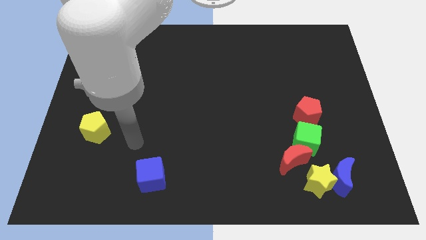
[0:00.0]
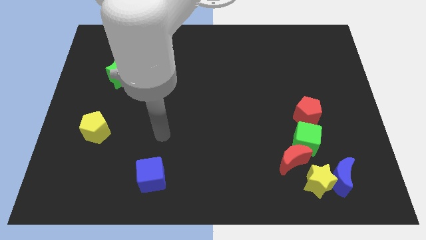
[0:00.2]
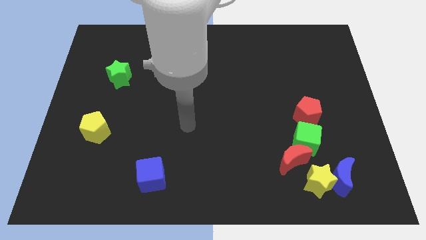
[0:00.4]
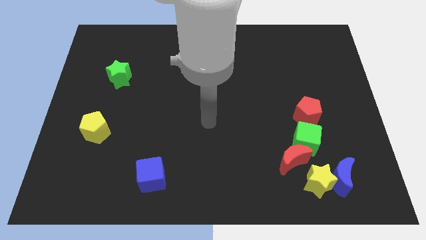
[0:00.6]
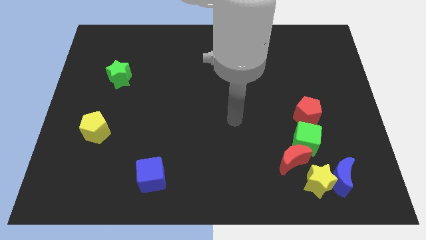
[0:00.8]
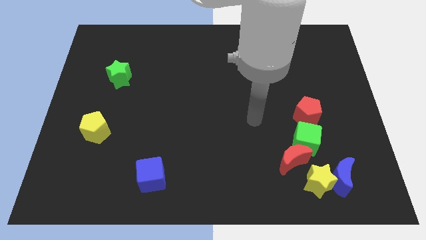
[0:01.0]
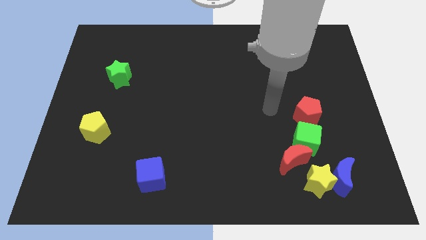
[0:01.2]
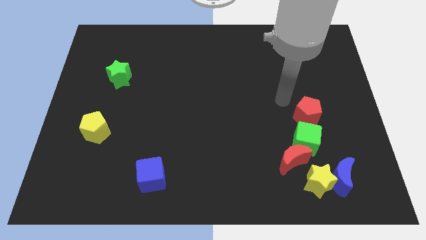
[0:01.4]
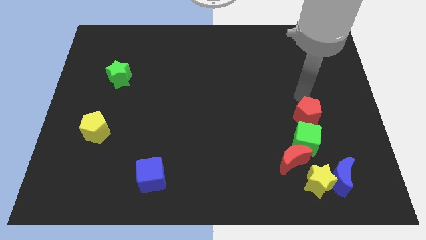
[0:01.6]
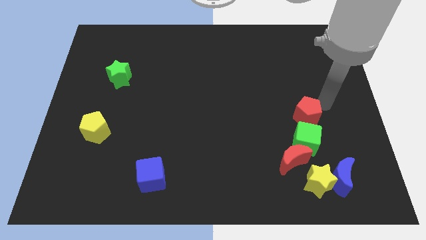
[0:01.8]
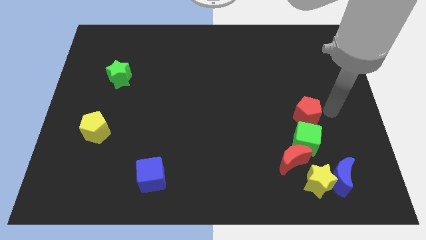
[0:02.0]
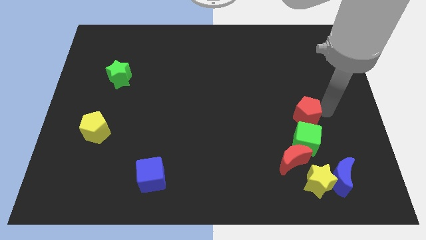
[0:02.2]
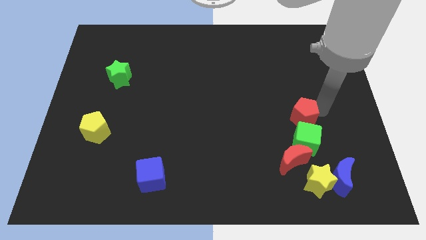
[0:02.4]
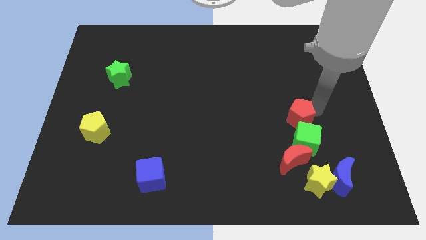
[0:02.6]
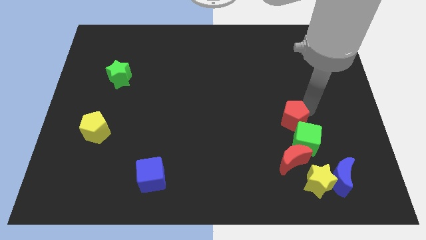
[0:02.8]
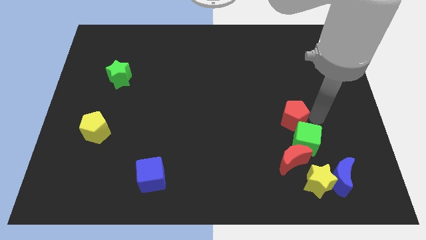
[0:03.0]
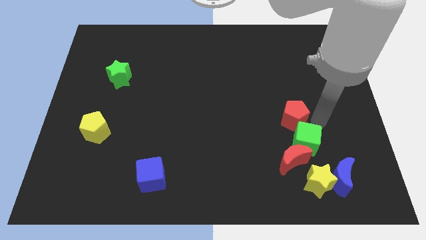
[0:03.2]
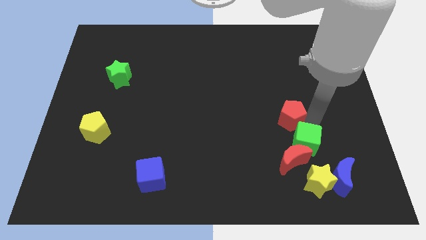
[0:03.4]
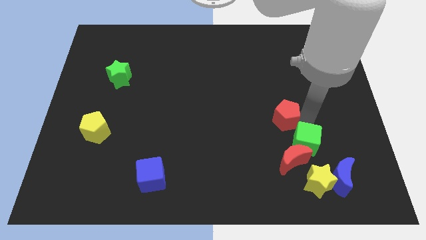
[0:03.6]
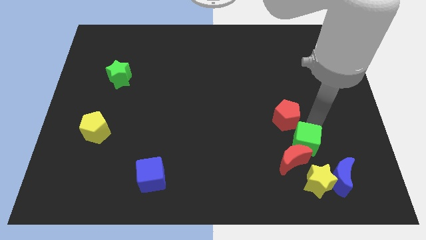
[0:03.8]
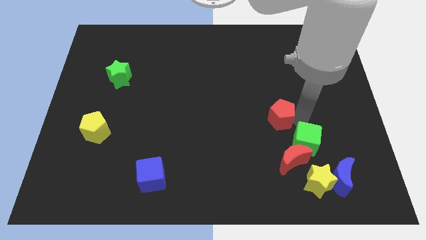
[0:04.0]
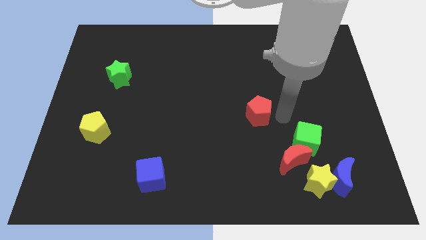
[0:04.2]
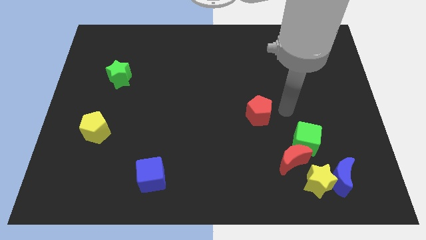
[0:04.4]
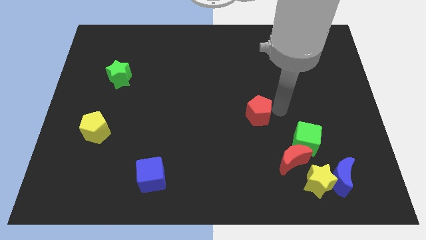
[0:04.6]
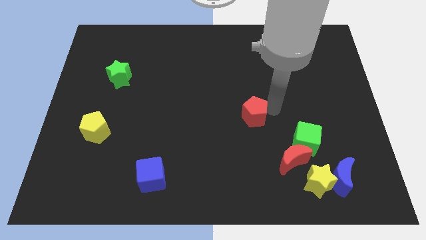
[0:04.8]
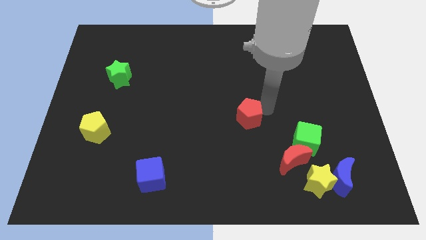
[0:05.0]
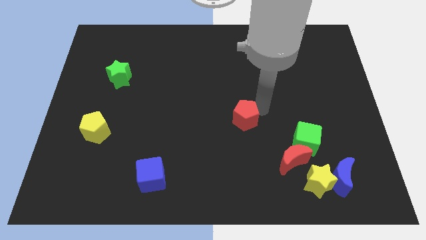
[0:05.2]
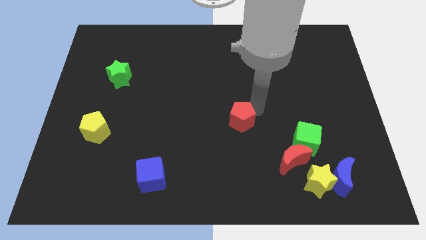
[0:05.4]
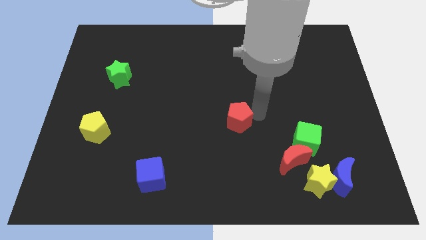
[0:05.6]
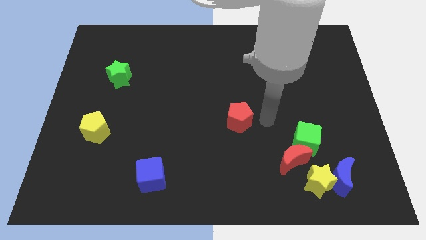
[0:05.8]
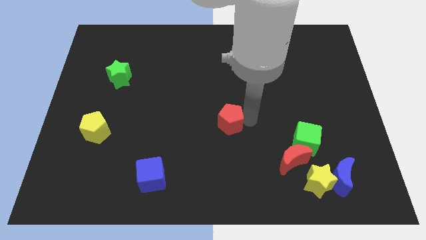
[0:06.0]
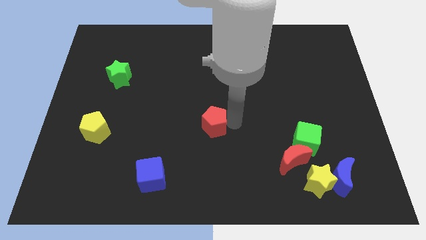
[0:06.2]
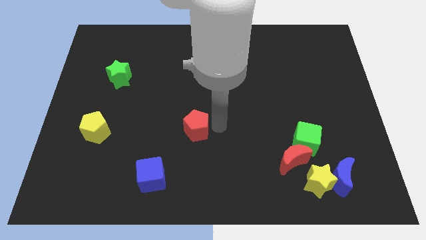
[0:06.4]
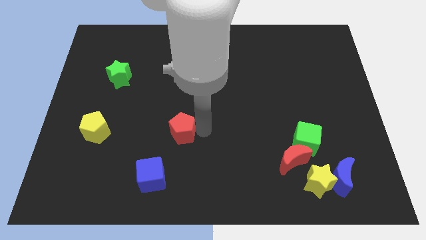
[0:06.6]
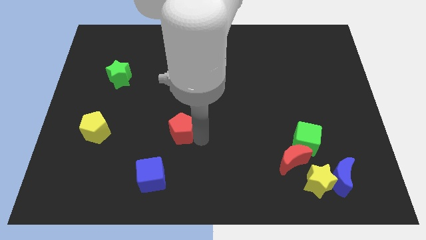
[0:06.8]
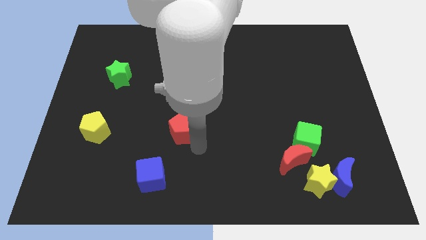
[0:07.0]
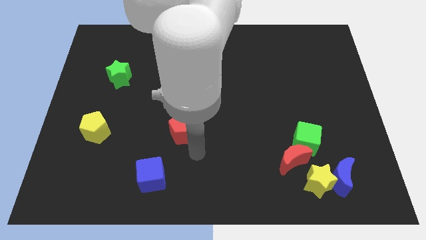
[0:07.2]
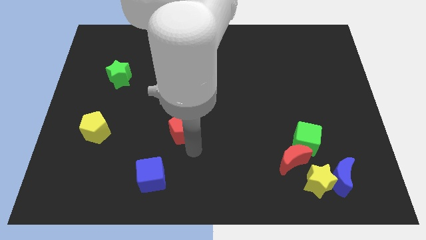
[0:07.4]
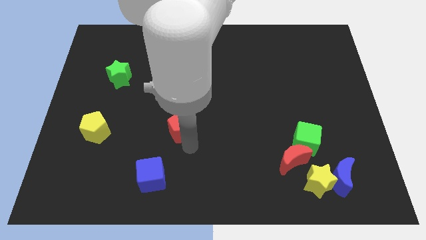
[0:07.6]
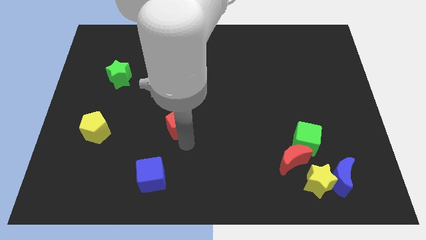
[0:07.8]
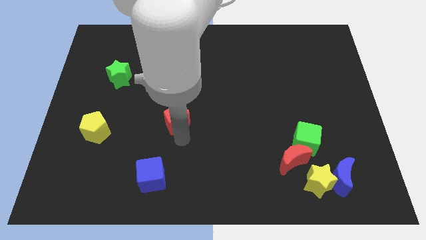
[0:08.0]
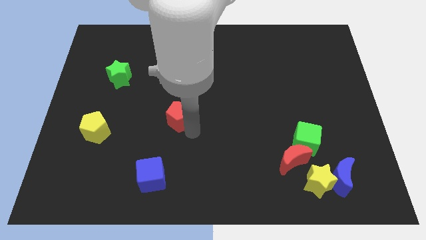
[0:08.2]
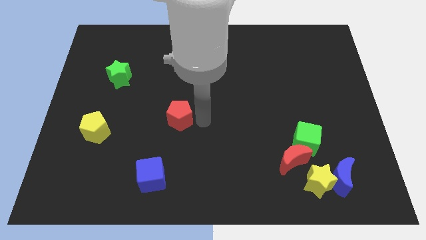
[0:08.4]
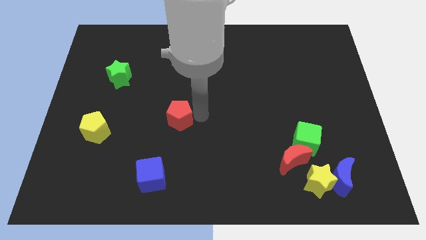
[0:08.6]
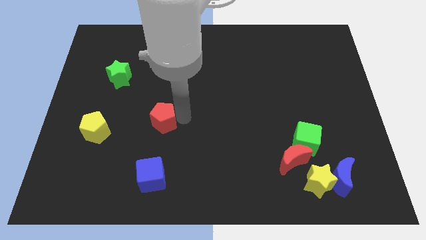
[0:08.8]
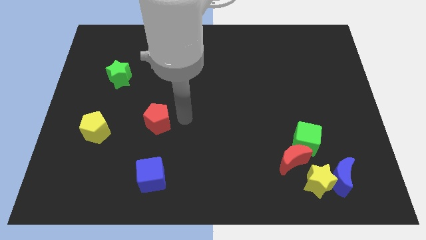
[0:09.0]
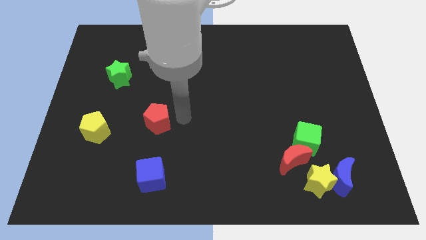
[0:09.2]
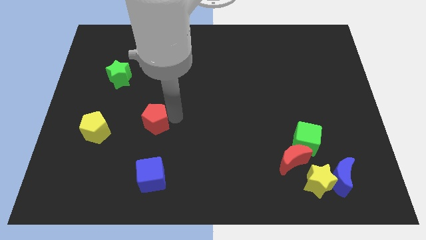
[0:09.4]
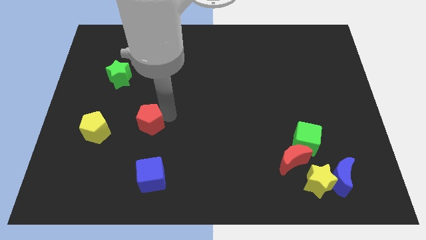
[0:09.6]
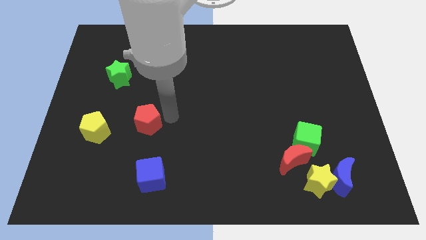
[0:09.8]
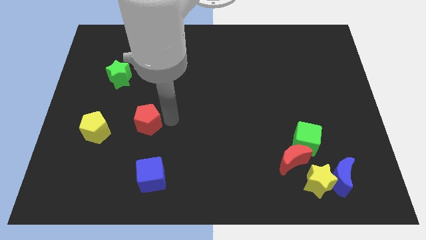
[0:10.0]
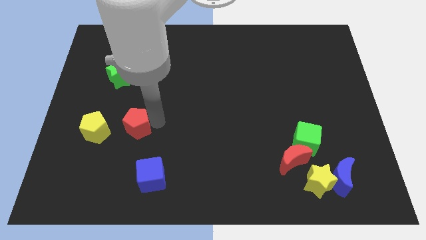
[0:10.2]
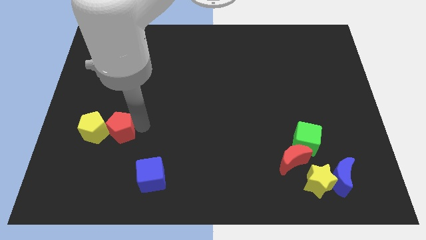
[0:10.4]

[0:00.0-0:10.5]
push the red pentagon to the yellow pentagon

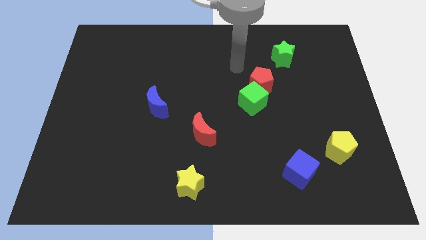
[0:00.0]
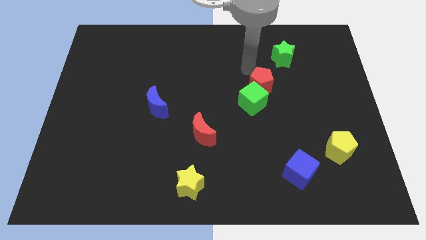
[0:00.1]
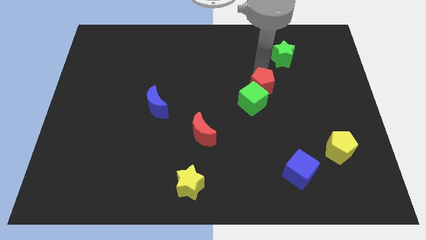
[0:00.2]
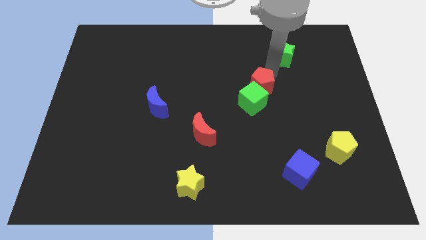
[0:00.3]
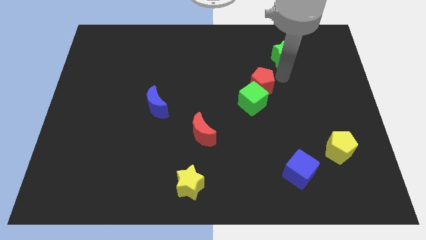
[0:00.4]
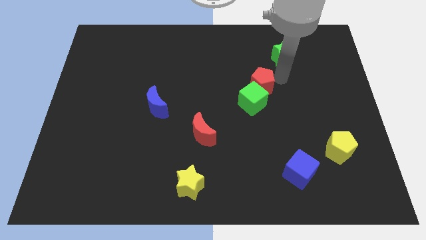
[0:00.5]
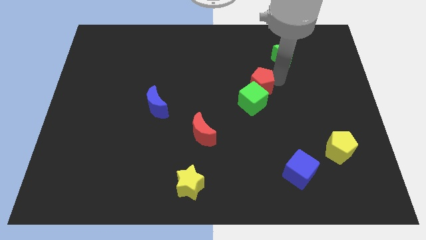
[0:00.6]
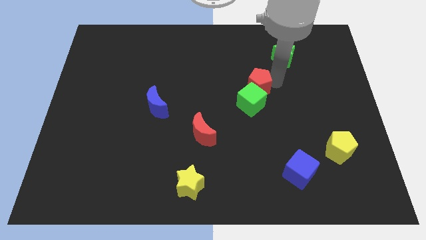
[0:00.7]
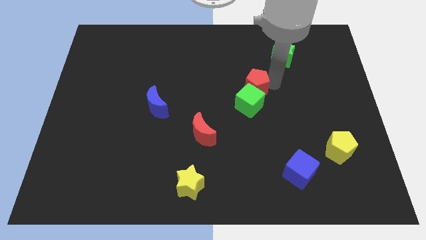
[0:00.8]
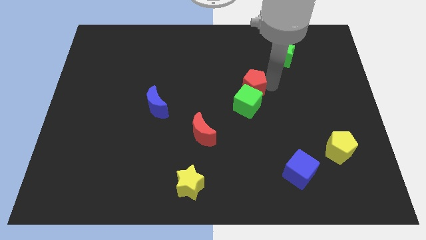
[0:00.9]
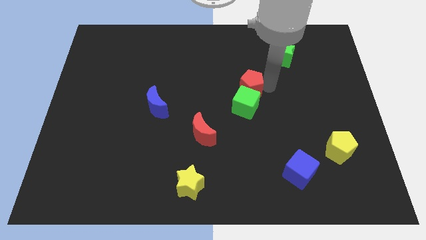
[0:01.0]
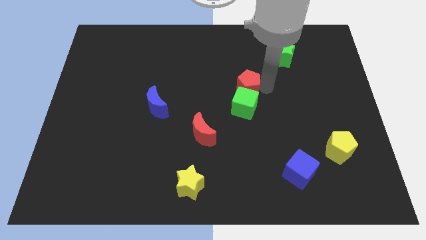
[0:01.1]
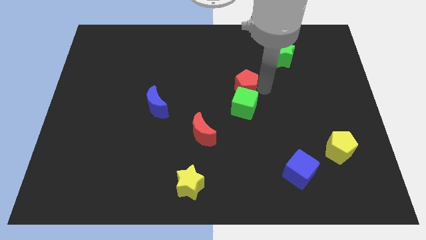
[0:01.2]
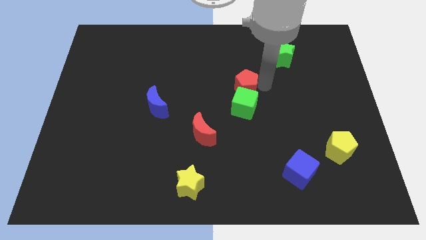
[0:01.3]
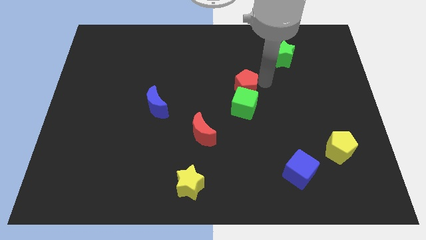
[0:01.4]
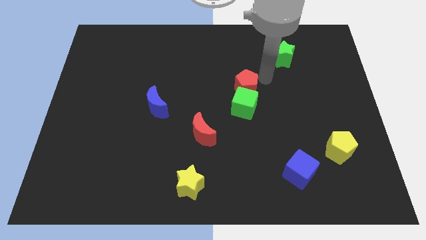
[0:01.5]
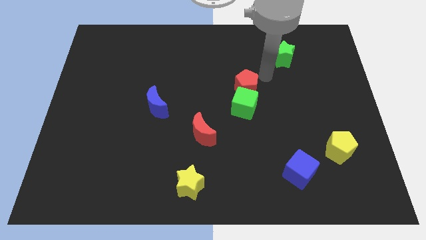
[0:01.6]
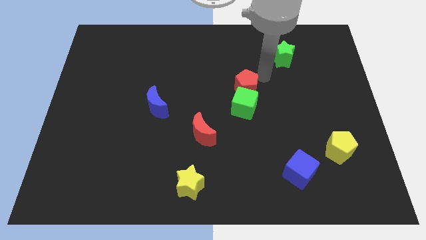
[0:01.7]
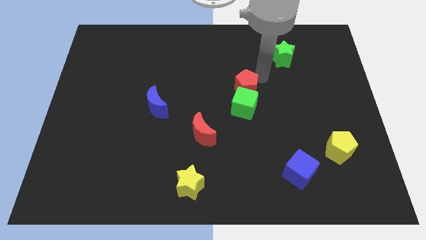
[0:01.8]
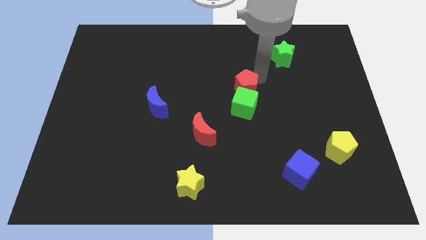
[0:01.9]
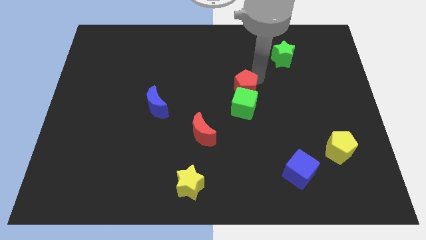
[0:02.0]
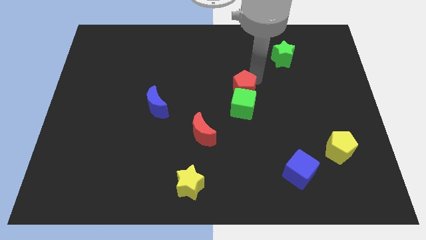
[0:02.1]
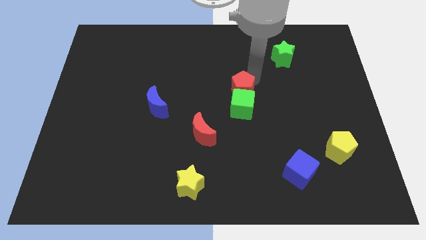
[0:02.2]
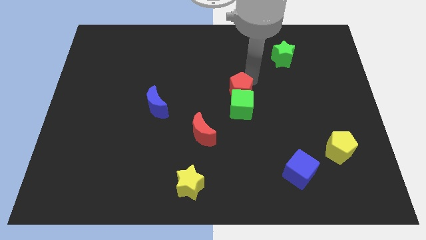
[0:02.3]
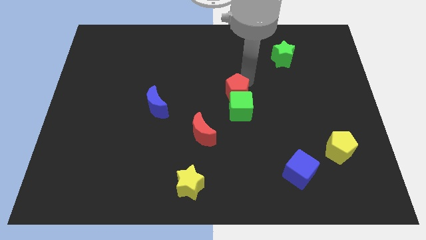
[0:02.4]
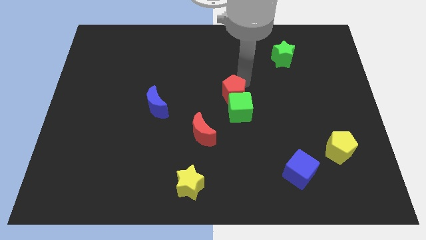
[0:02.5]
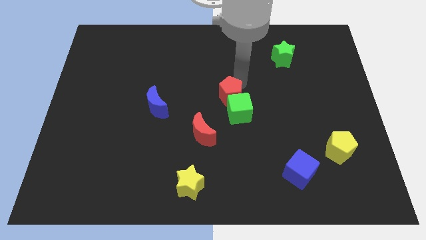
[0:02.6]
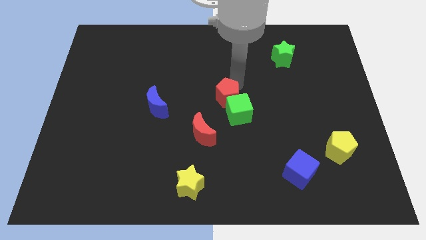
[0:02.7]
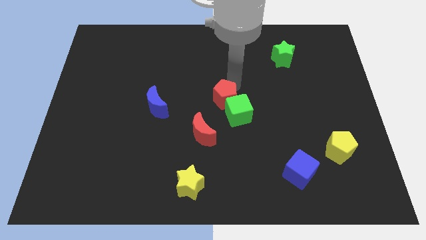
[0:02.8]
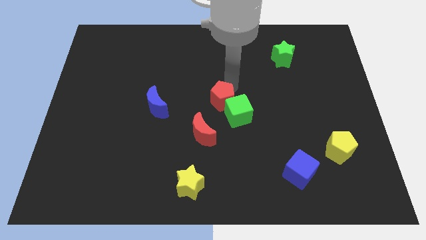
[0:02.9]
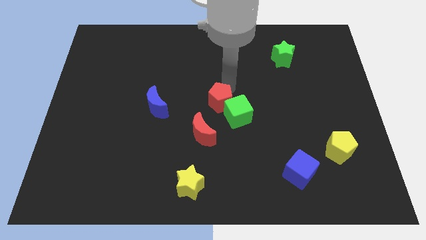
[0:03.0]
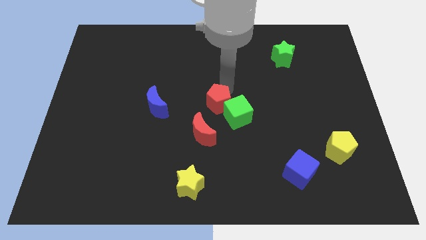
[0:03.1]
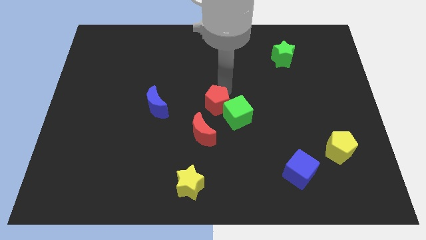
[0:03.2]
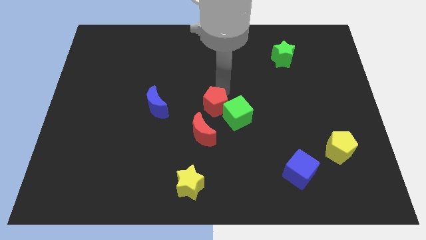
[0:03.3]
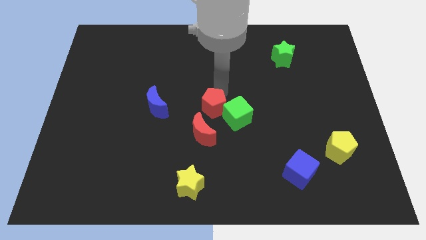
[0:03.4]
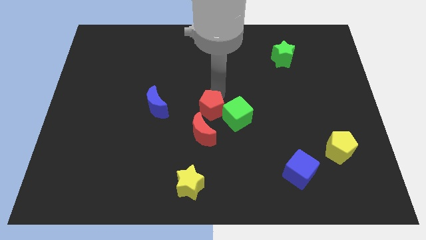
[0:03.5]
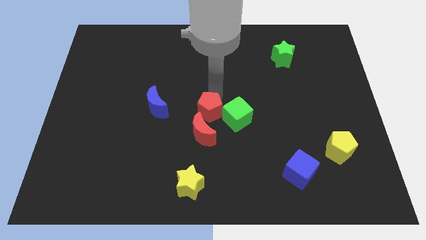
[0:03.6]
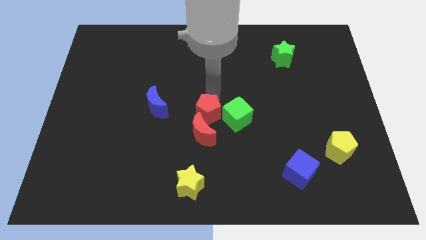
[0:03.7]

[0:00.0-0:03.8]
put the red pentagon close to the red moon
